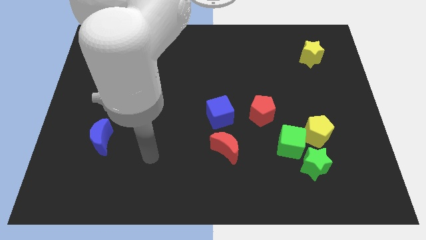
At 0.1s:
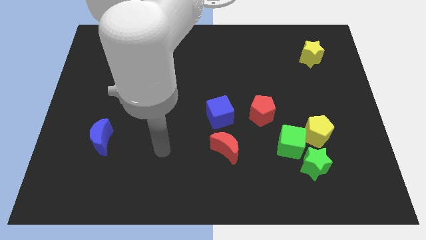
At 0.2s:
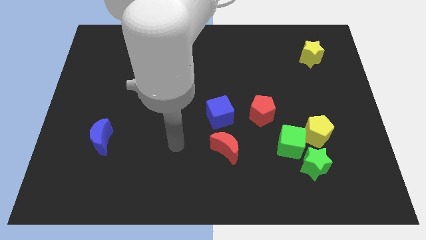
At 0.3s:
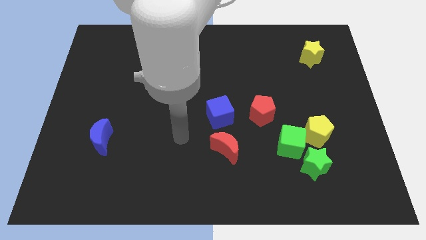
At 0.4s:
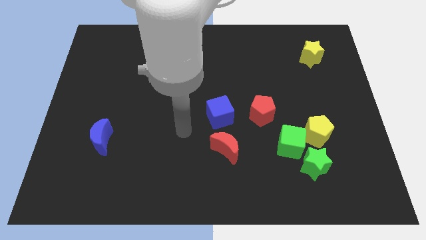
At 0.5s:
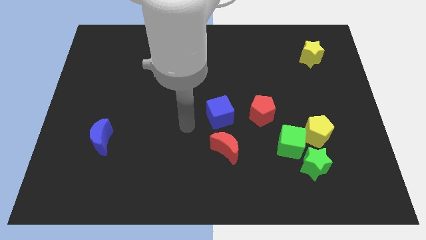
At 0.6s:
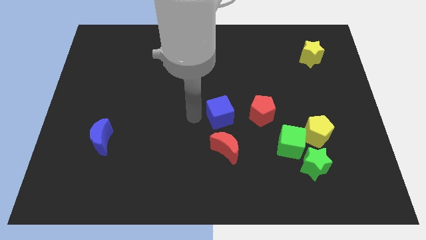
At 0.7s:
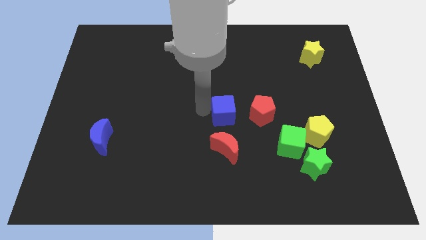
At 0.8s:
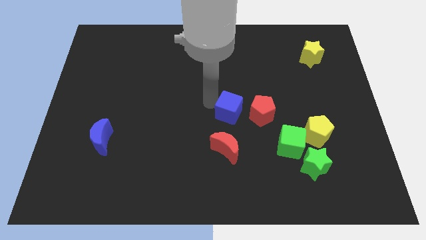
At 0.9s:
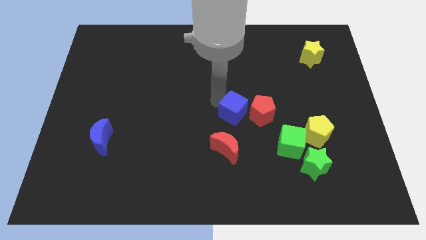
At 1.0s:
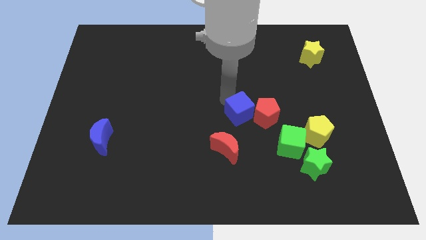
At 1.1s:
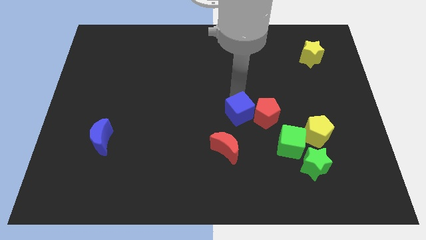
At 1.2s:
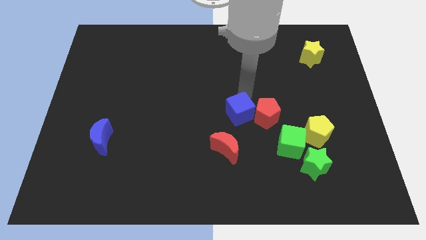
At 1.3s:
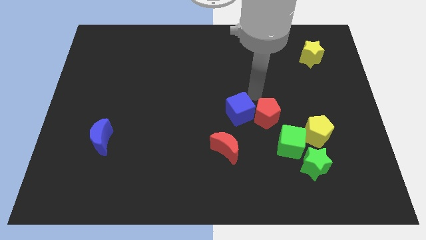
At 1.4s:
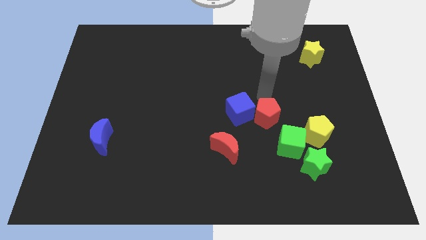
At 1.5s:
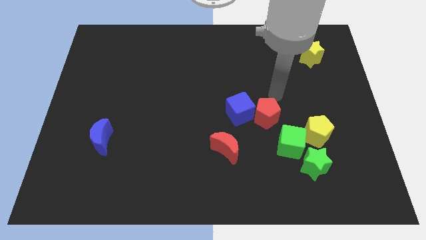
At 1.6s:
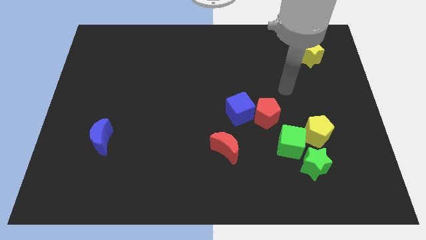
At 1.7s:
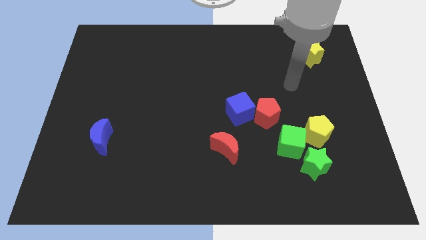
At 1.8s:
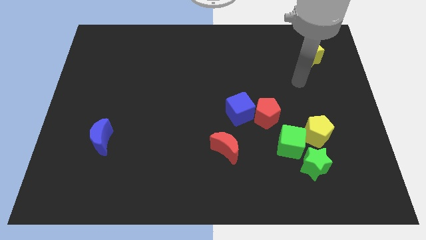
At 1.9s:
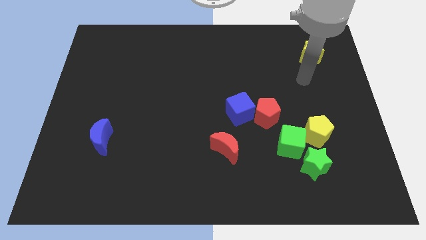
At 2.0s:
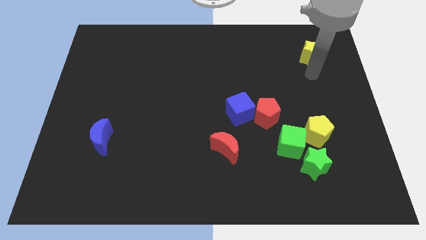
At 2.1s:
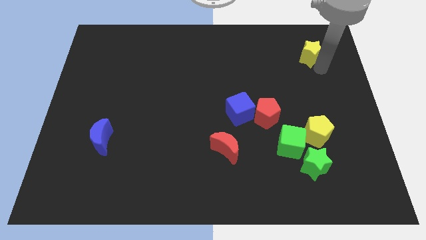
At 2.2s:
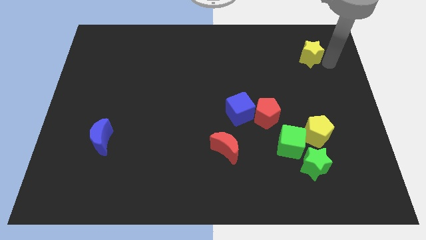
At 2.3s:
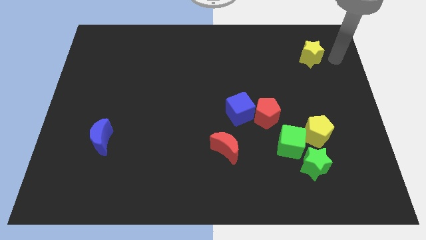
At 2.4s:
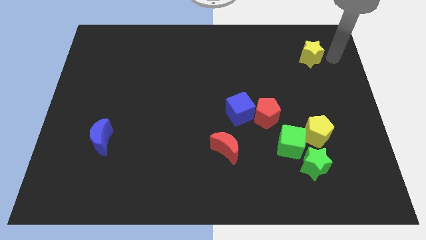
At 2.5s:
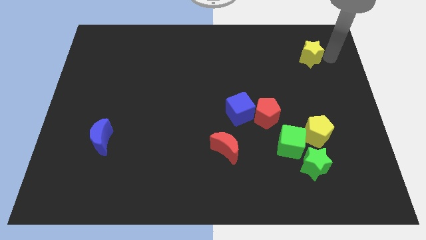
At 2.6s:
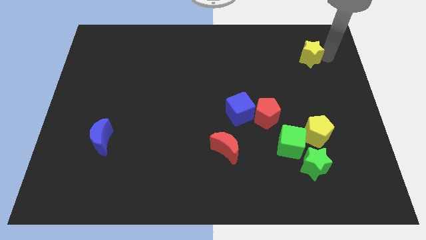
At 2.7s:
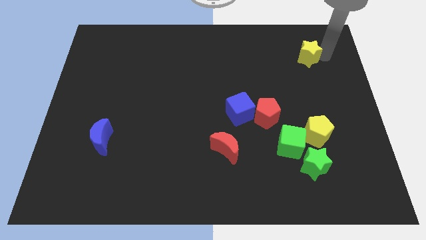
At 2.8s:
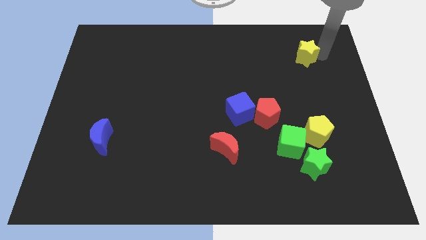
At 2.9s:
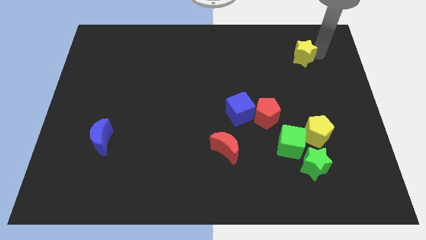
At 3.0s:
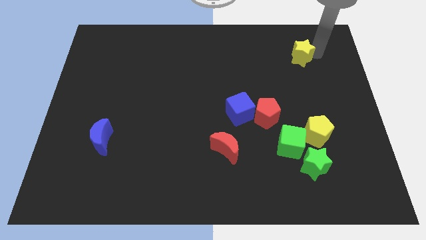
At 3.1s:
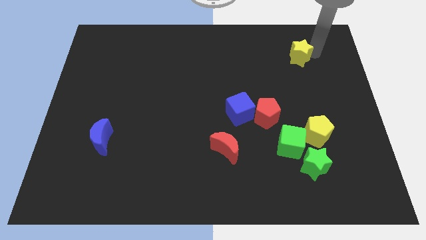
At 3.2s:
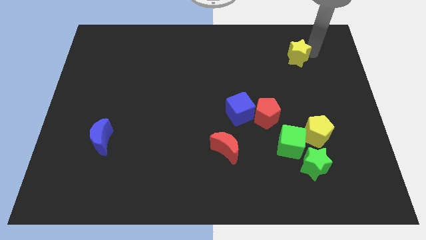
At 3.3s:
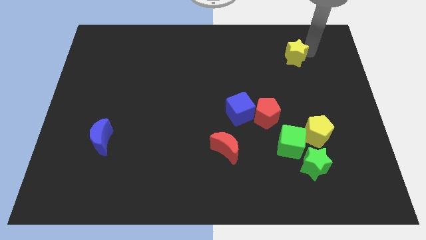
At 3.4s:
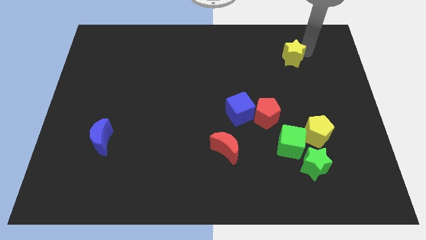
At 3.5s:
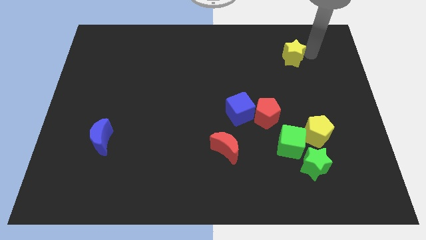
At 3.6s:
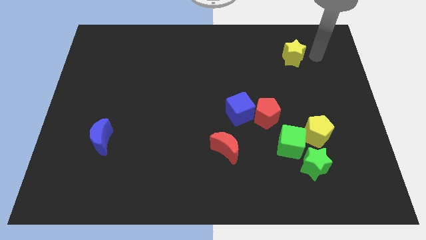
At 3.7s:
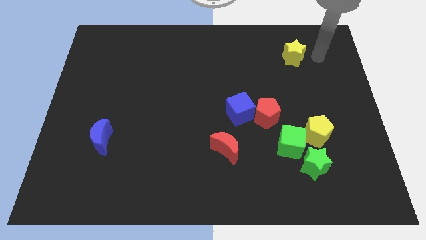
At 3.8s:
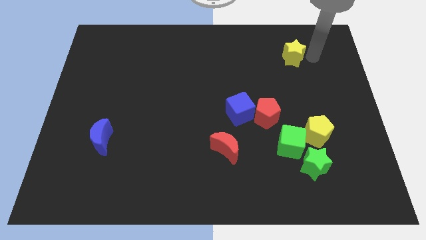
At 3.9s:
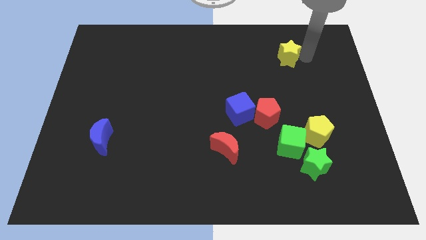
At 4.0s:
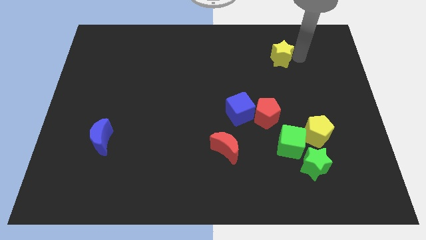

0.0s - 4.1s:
slightly slide the yellow star to the left

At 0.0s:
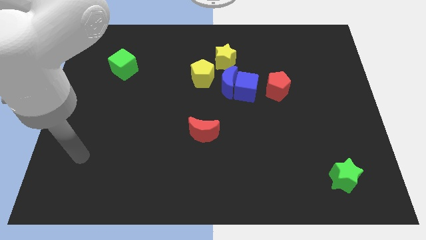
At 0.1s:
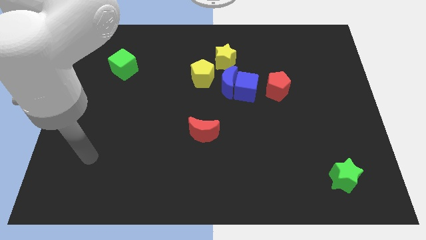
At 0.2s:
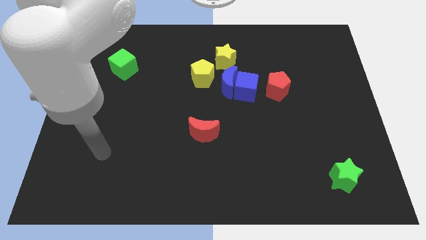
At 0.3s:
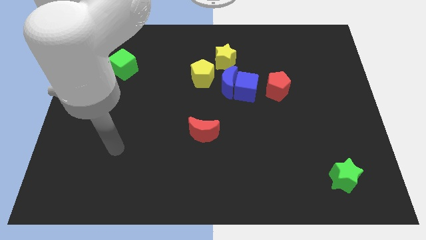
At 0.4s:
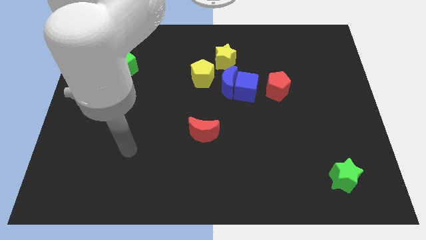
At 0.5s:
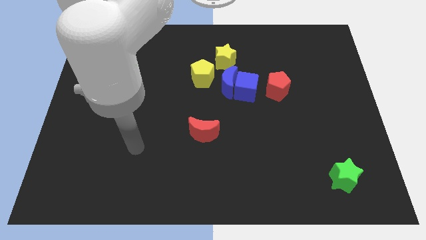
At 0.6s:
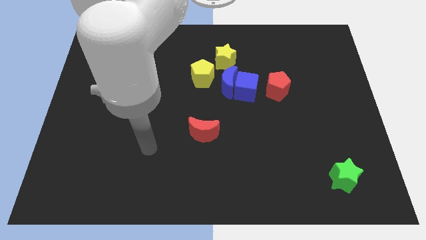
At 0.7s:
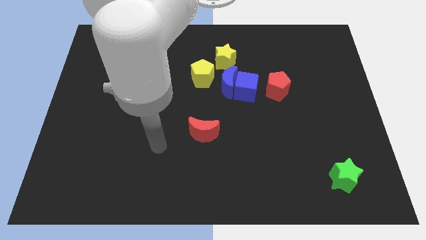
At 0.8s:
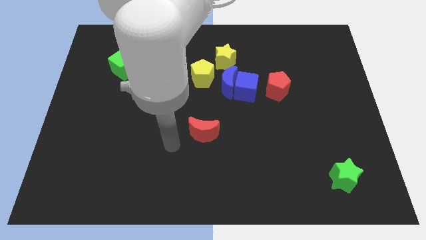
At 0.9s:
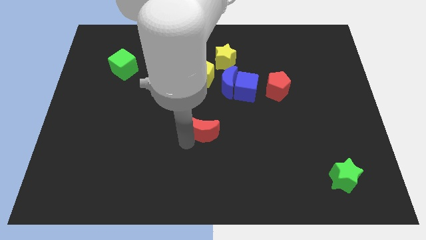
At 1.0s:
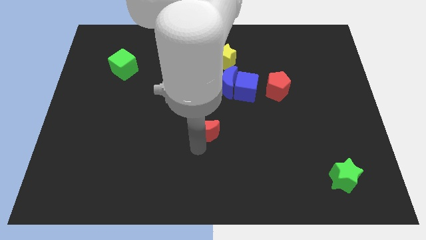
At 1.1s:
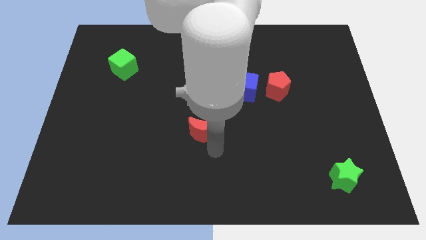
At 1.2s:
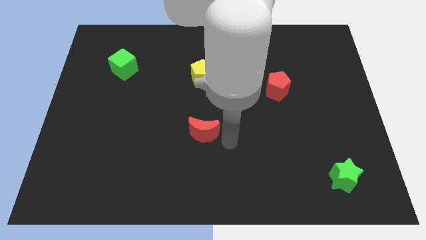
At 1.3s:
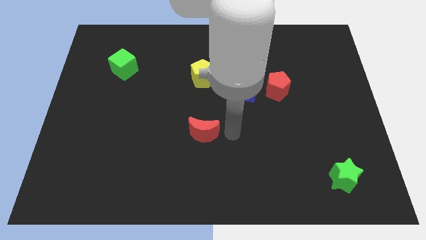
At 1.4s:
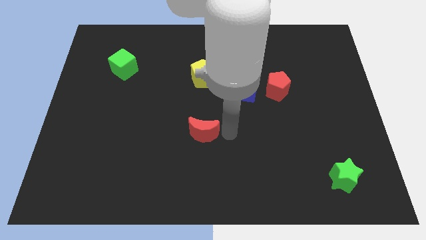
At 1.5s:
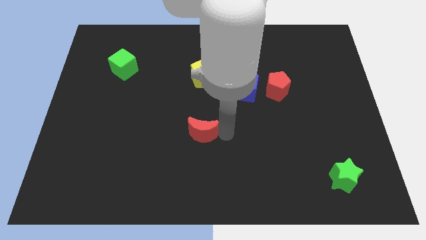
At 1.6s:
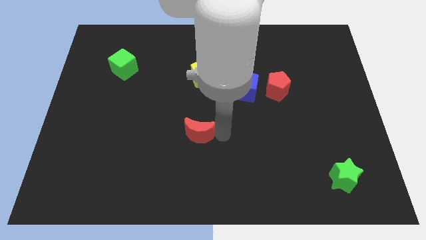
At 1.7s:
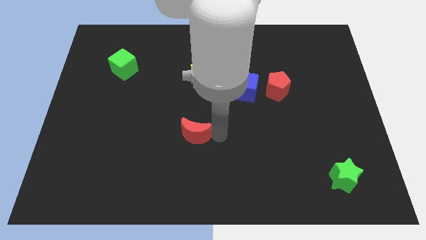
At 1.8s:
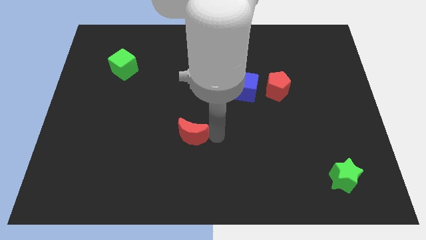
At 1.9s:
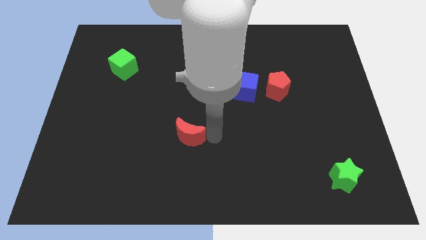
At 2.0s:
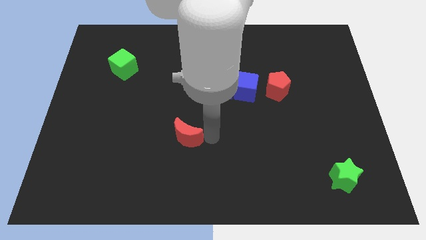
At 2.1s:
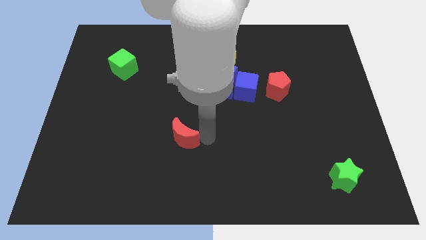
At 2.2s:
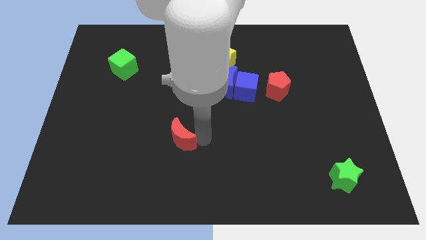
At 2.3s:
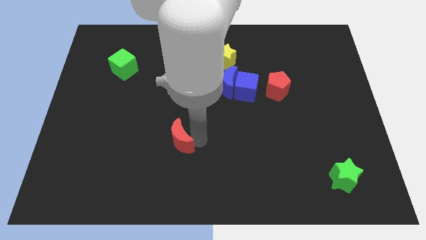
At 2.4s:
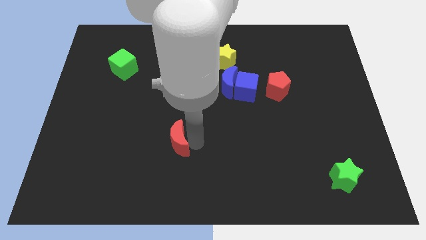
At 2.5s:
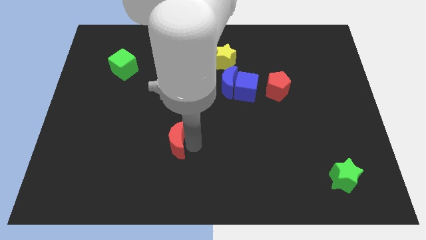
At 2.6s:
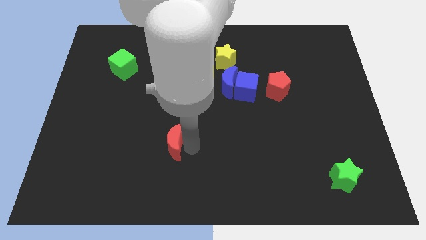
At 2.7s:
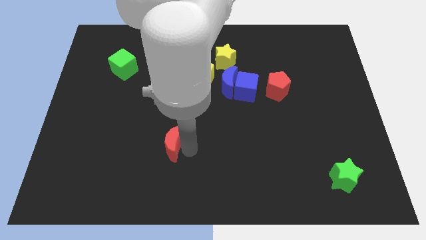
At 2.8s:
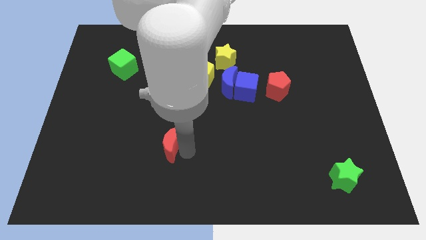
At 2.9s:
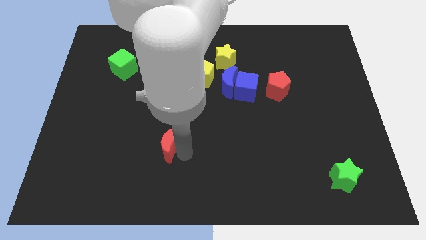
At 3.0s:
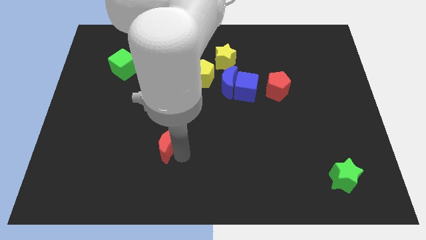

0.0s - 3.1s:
move the red moon a little to the left

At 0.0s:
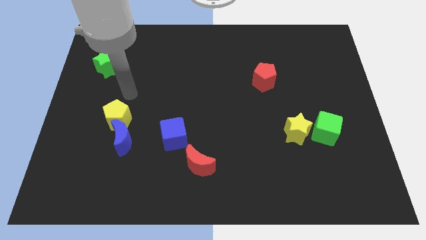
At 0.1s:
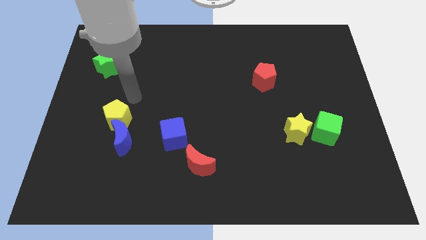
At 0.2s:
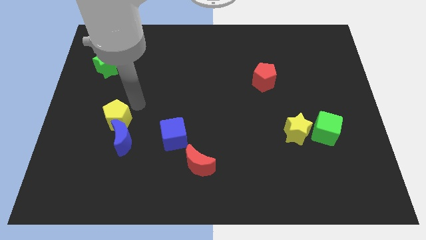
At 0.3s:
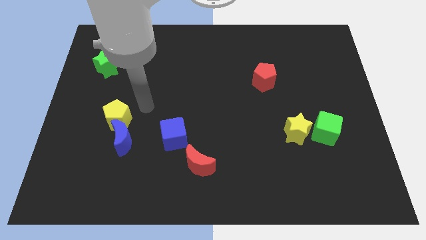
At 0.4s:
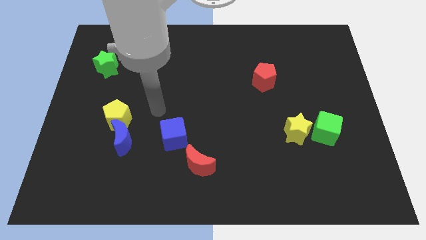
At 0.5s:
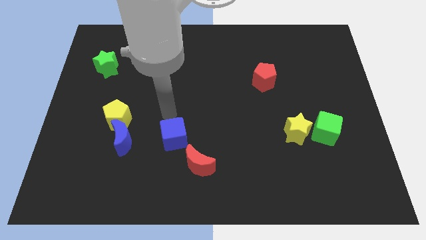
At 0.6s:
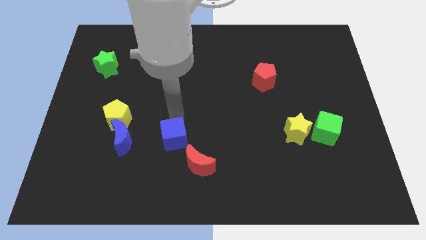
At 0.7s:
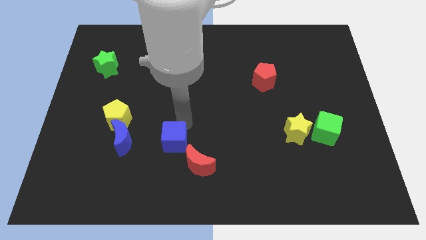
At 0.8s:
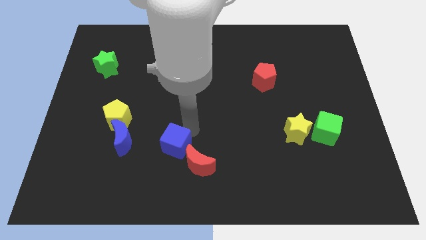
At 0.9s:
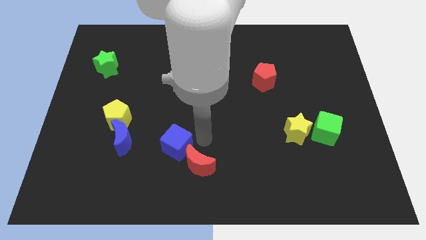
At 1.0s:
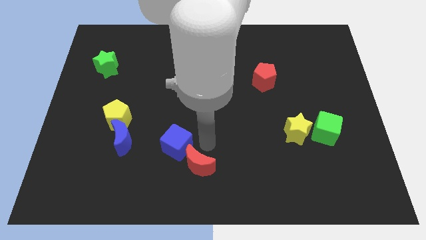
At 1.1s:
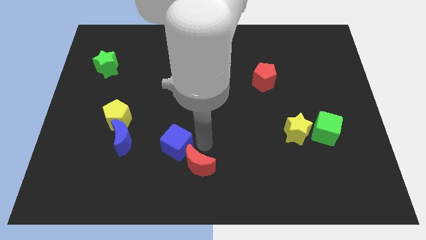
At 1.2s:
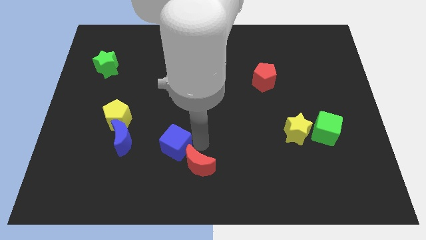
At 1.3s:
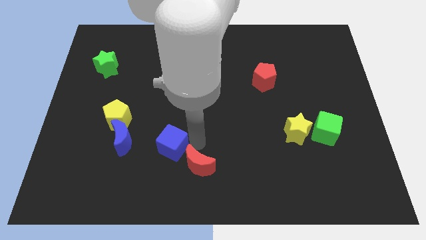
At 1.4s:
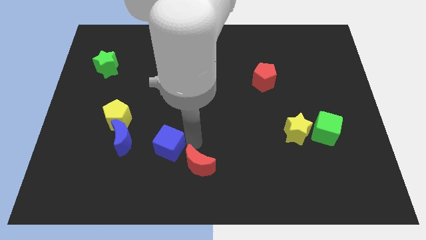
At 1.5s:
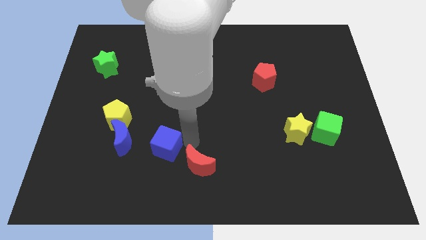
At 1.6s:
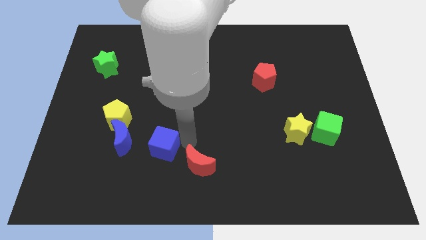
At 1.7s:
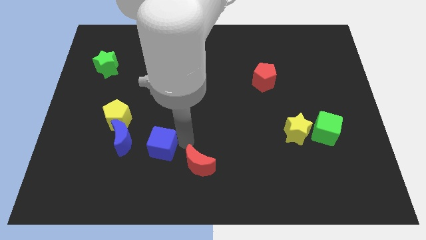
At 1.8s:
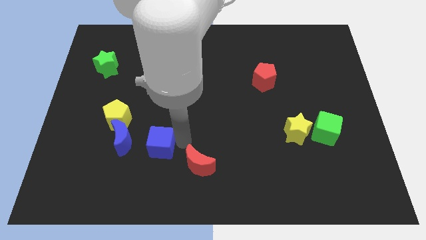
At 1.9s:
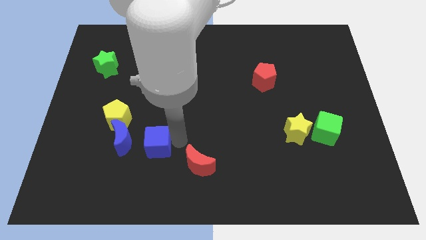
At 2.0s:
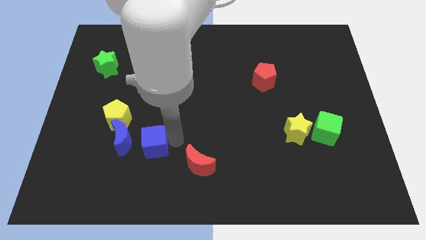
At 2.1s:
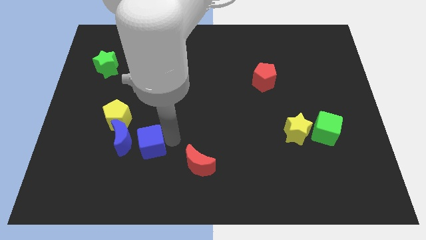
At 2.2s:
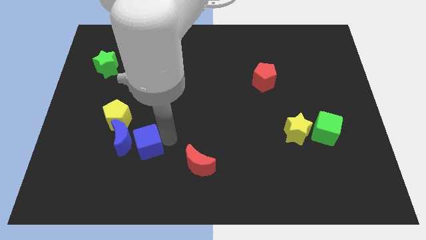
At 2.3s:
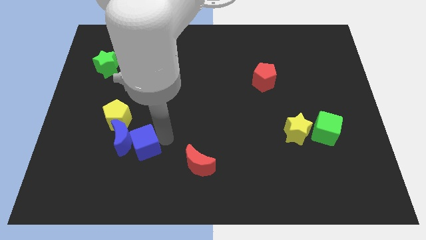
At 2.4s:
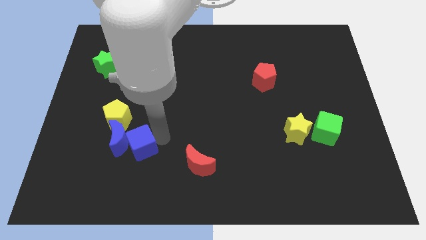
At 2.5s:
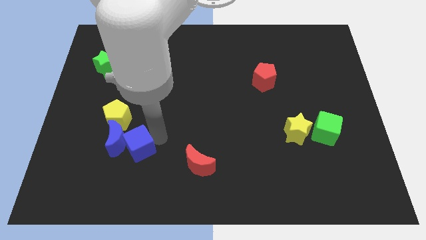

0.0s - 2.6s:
move the blue cube left a bit
